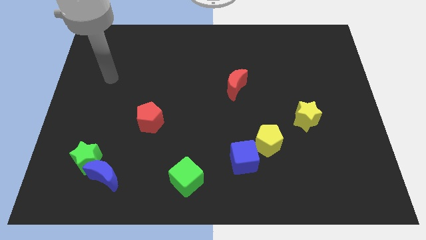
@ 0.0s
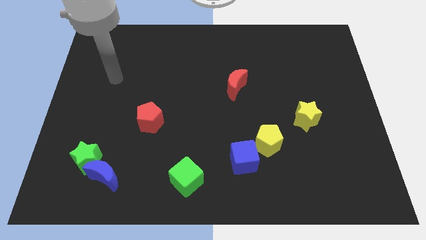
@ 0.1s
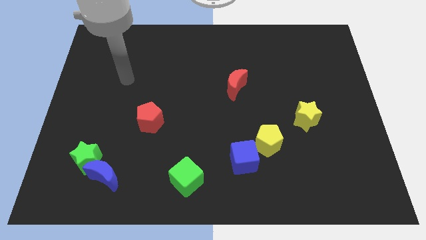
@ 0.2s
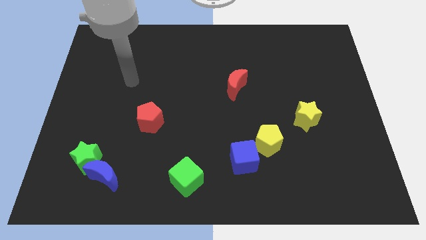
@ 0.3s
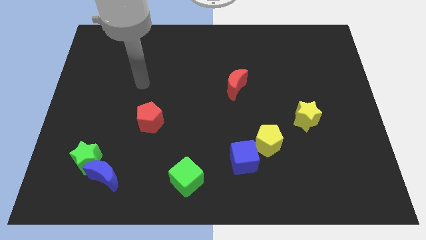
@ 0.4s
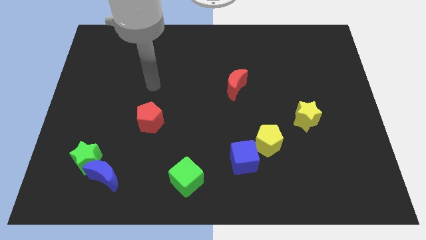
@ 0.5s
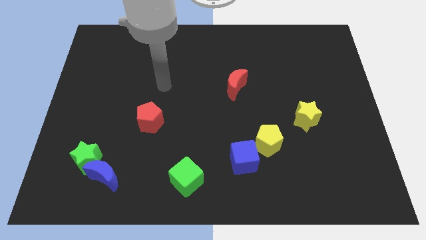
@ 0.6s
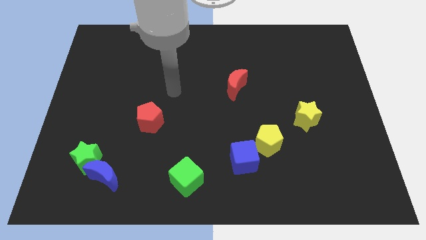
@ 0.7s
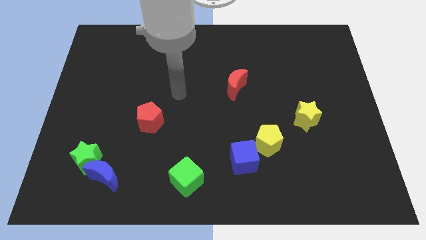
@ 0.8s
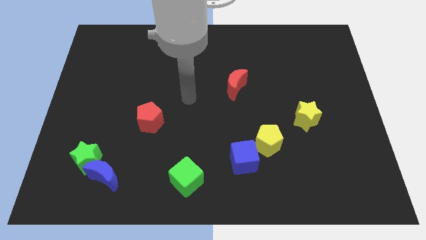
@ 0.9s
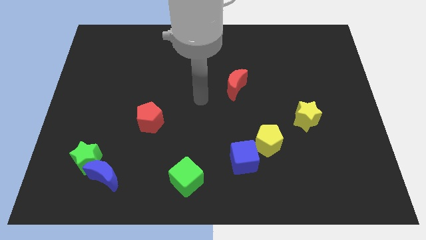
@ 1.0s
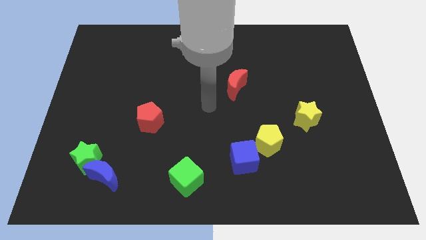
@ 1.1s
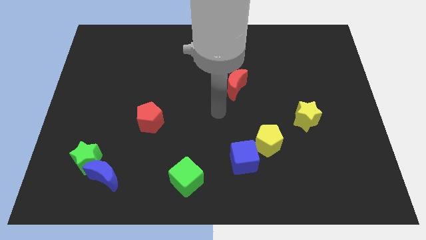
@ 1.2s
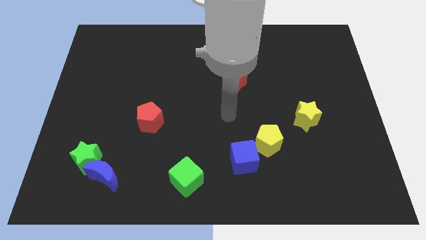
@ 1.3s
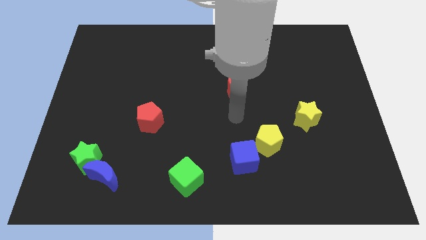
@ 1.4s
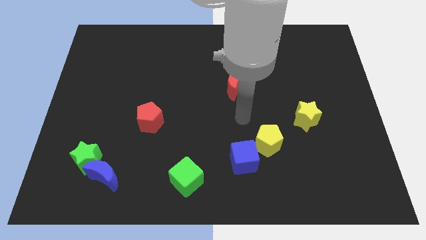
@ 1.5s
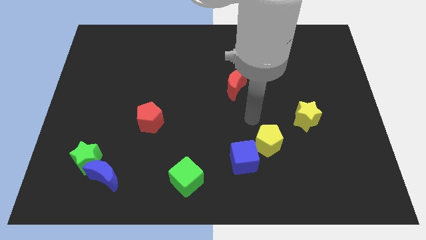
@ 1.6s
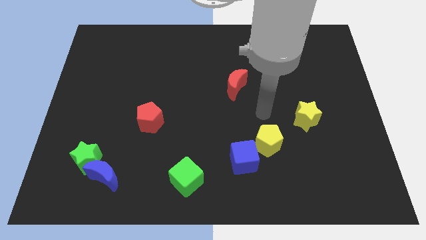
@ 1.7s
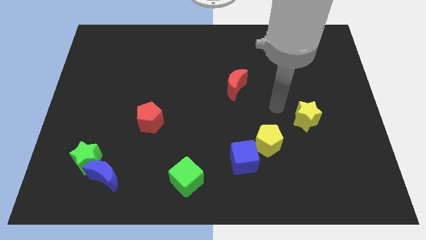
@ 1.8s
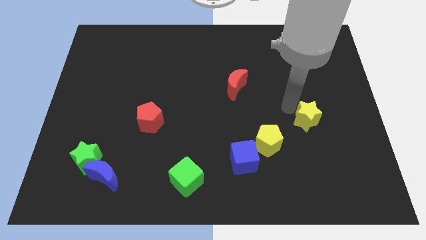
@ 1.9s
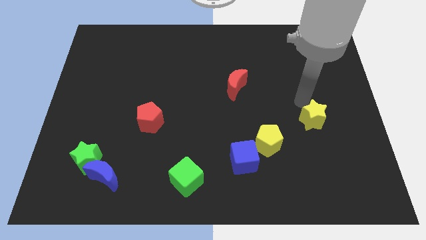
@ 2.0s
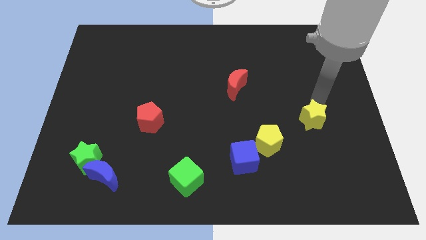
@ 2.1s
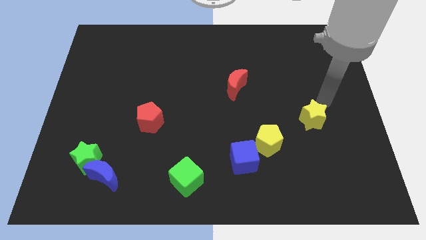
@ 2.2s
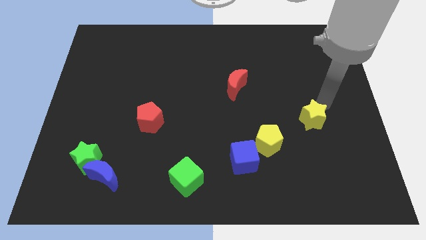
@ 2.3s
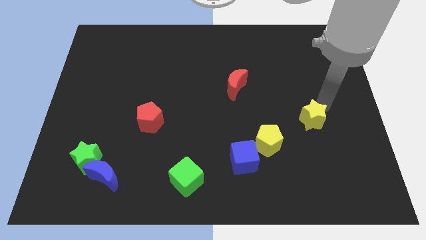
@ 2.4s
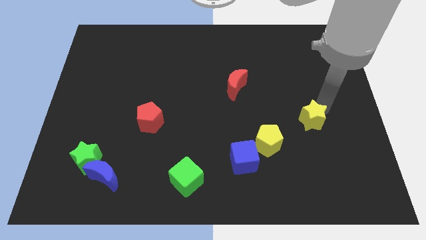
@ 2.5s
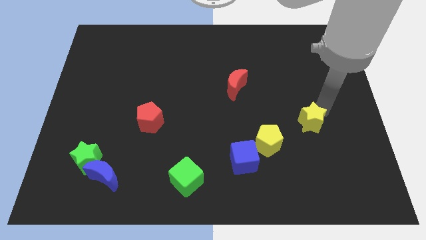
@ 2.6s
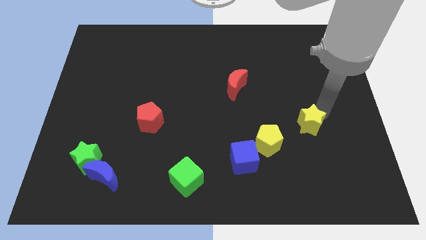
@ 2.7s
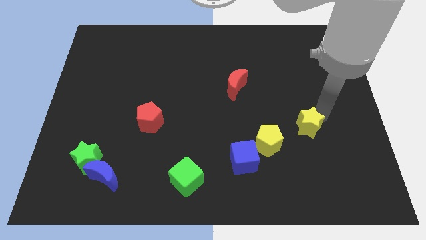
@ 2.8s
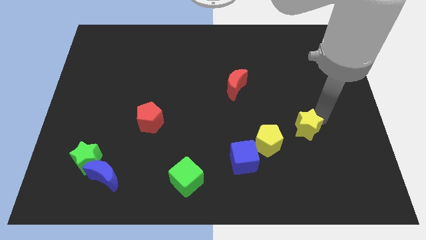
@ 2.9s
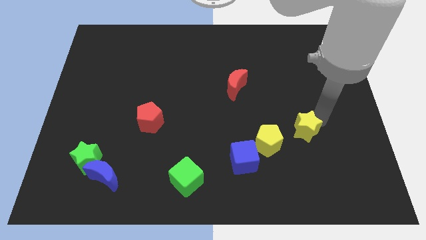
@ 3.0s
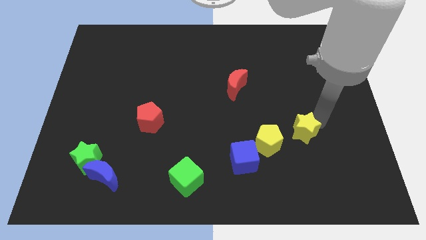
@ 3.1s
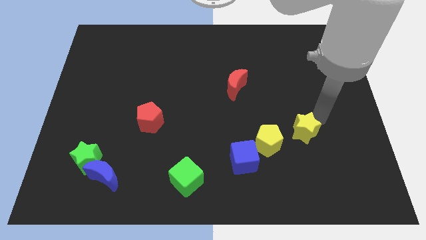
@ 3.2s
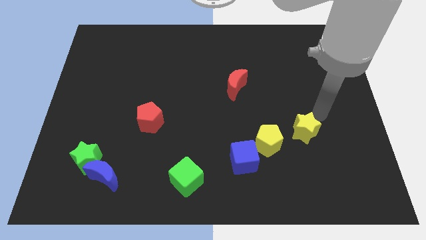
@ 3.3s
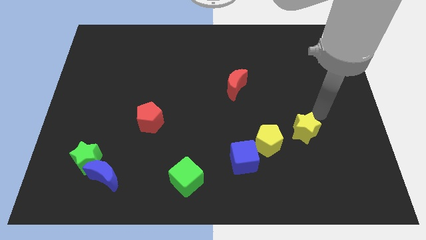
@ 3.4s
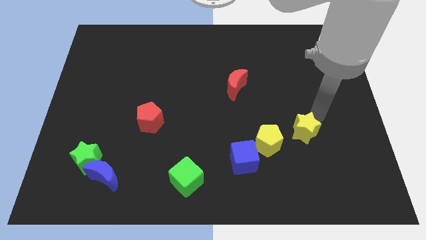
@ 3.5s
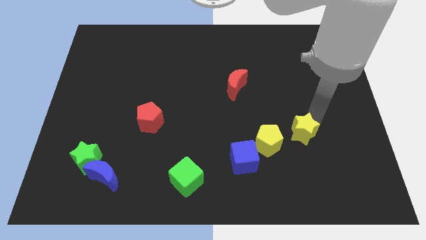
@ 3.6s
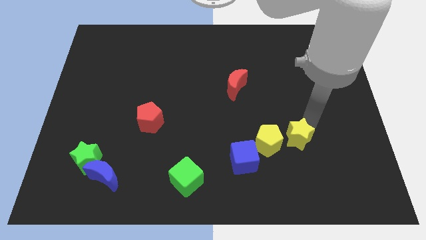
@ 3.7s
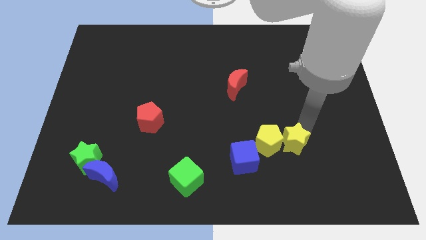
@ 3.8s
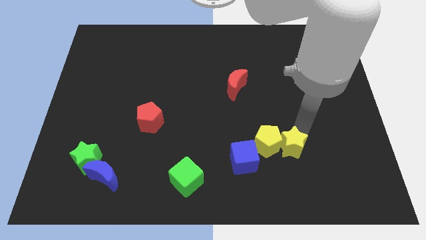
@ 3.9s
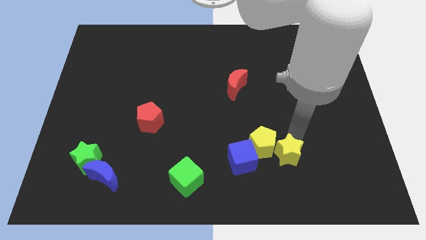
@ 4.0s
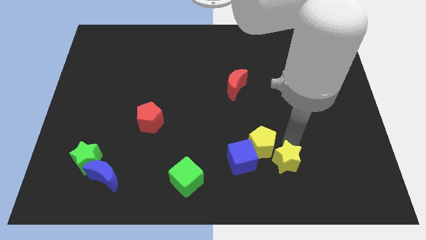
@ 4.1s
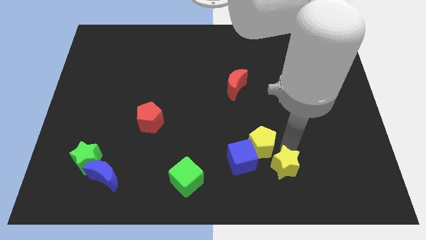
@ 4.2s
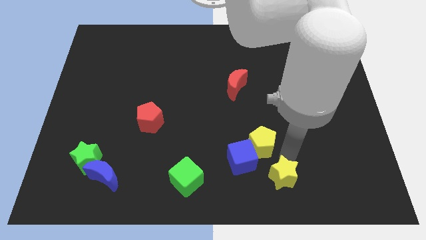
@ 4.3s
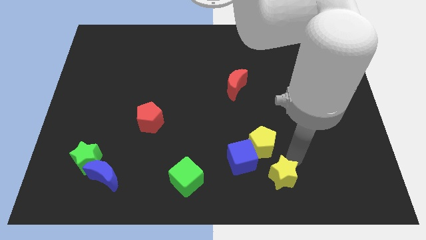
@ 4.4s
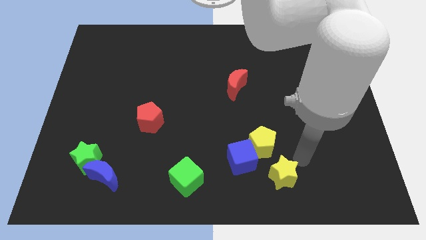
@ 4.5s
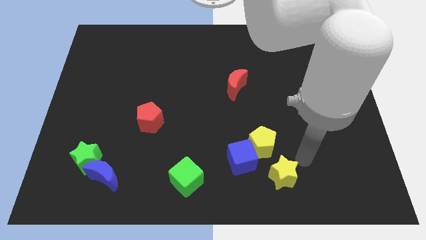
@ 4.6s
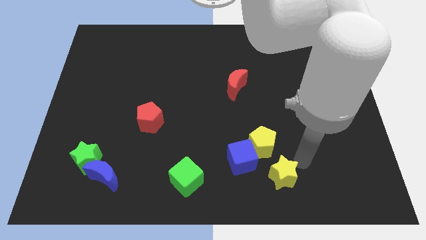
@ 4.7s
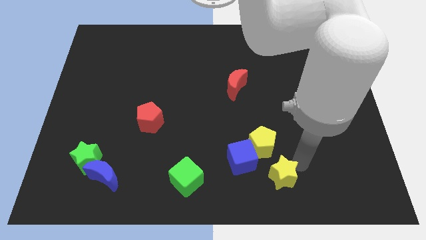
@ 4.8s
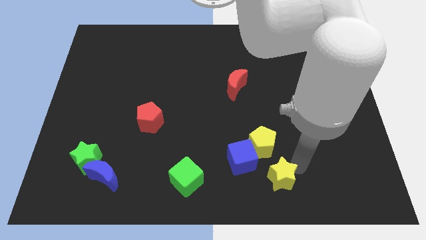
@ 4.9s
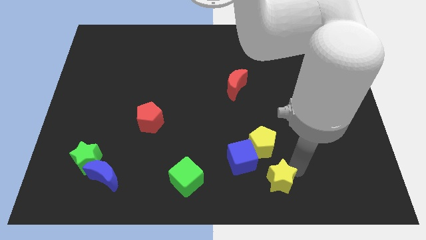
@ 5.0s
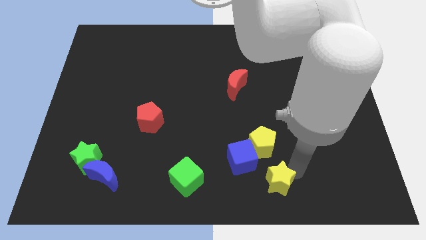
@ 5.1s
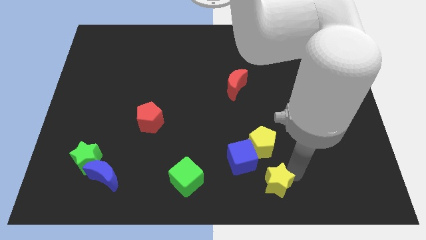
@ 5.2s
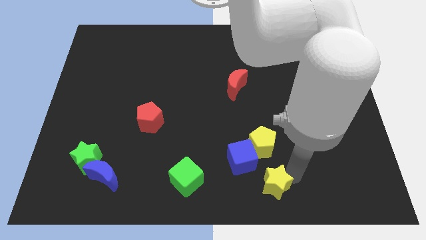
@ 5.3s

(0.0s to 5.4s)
move the yellow star to the bottom side

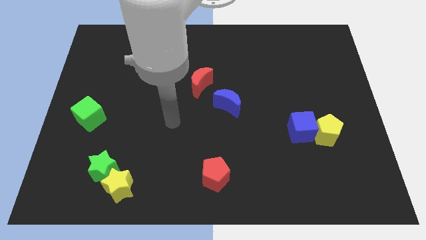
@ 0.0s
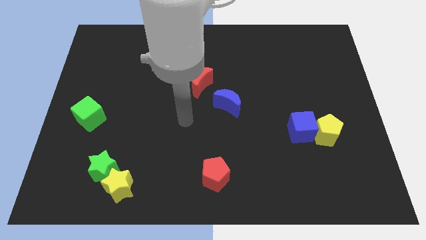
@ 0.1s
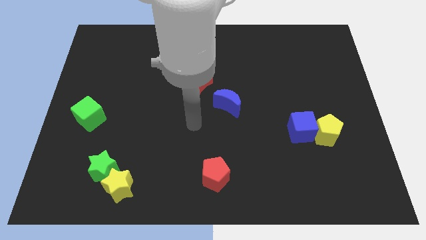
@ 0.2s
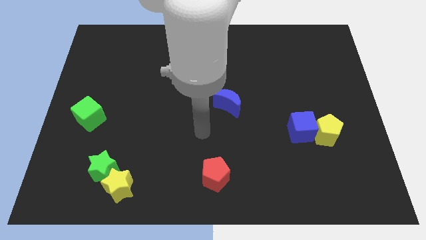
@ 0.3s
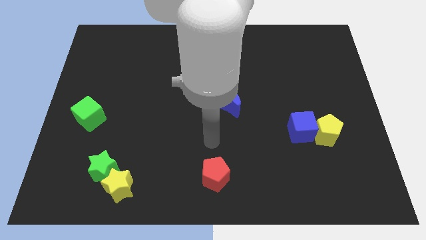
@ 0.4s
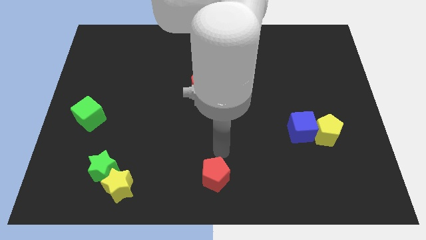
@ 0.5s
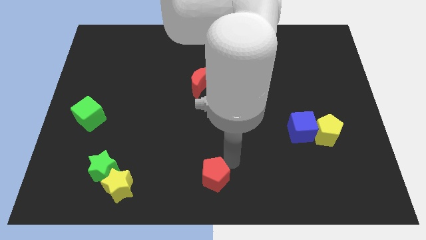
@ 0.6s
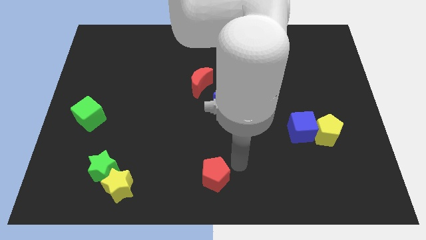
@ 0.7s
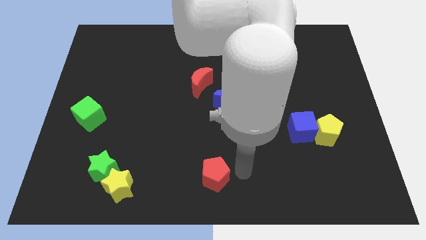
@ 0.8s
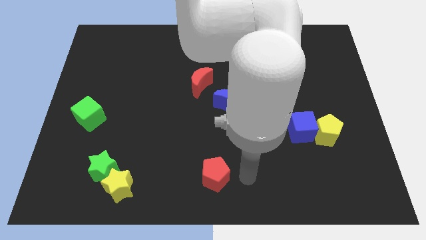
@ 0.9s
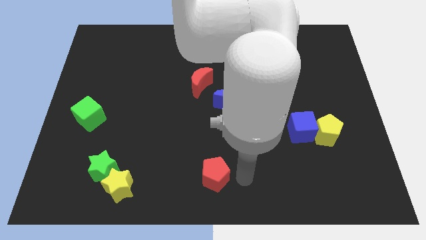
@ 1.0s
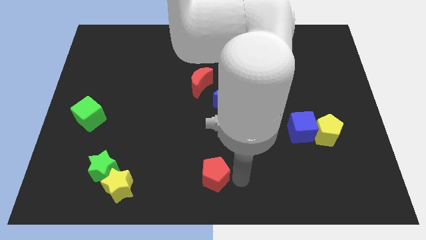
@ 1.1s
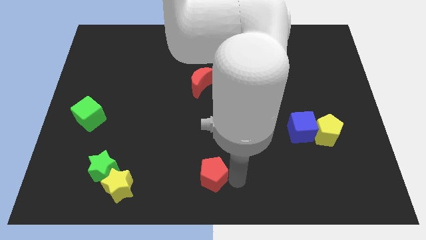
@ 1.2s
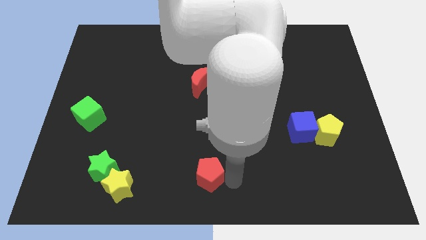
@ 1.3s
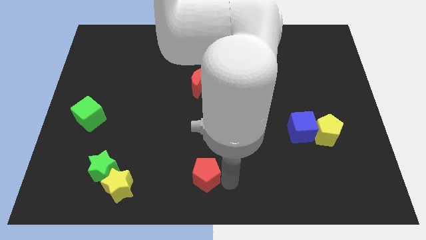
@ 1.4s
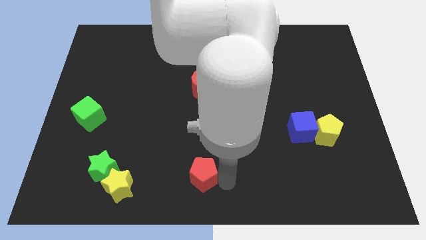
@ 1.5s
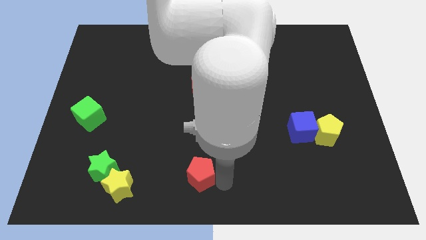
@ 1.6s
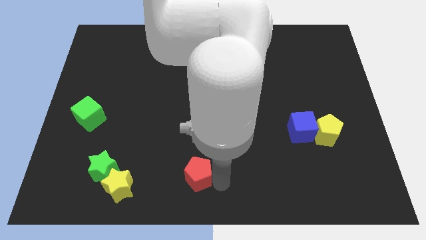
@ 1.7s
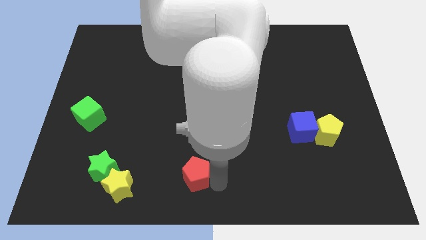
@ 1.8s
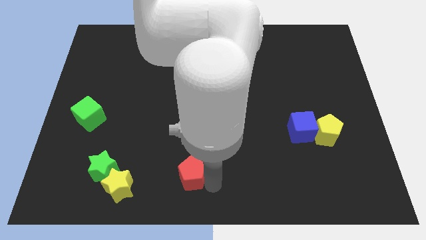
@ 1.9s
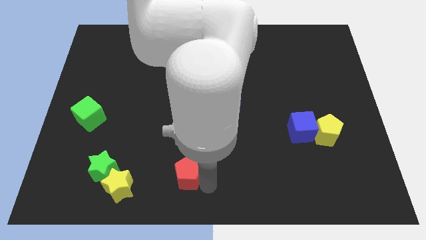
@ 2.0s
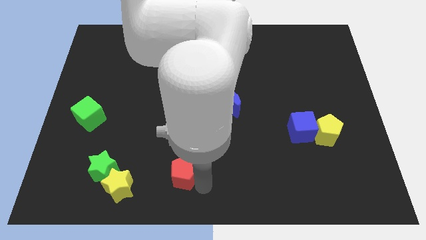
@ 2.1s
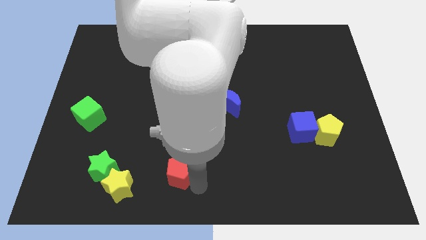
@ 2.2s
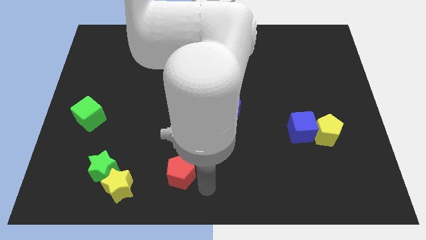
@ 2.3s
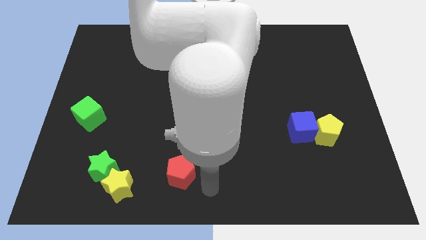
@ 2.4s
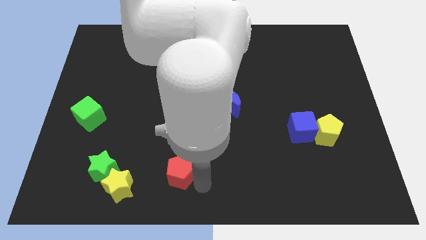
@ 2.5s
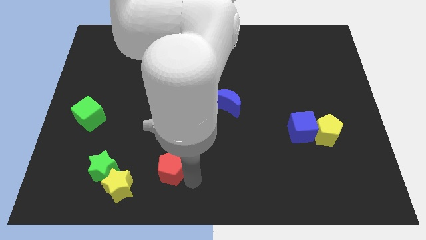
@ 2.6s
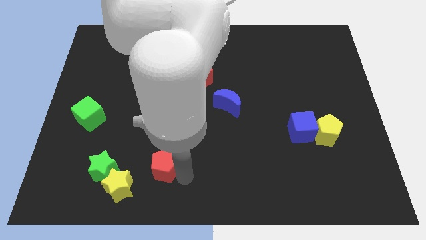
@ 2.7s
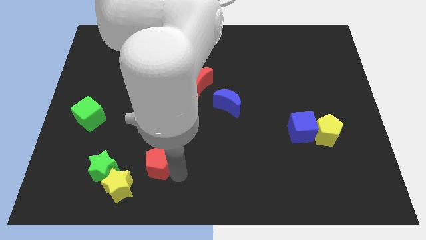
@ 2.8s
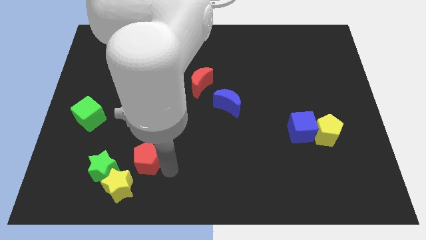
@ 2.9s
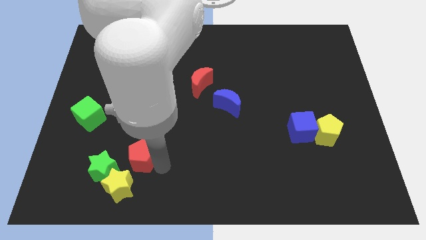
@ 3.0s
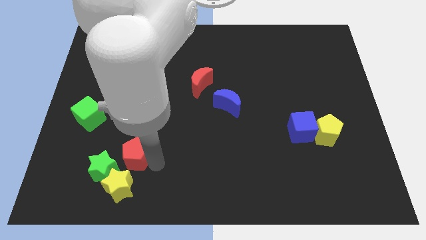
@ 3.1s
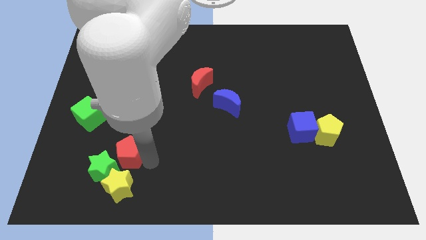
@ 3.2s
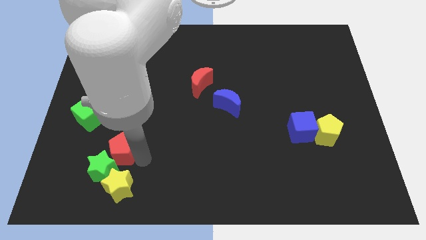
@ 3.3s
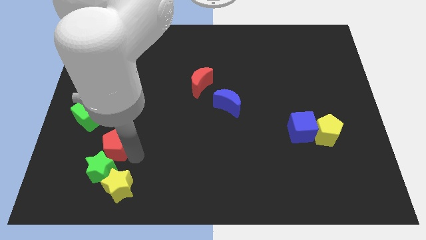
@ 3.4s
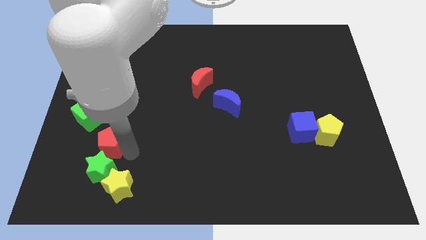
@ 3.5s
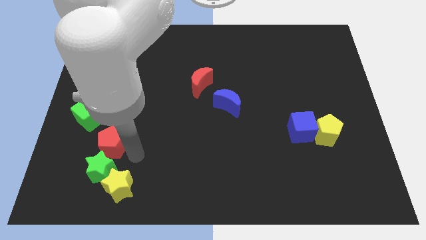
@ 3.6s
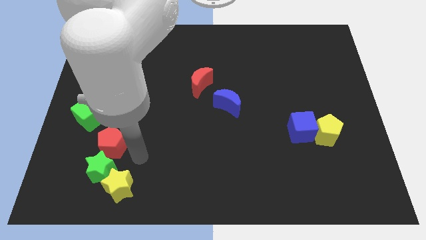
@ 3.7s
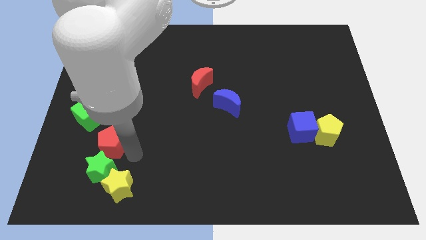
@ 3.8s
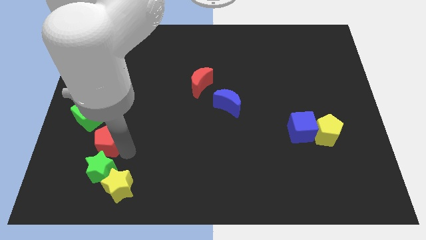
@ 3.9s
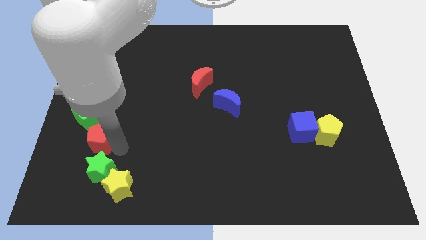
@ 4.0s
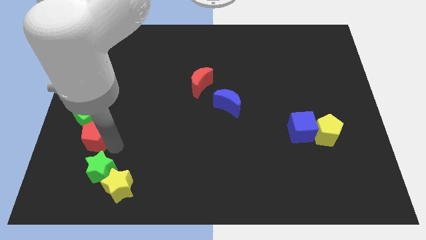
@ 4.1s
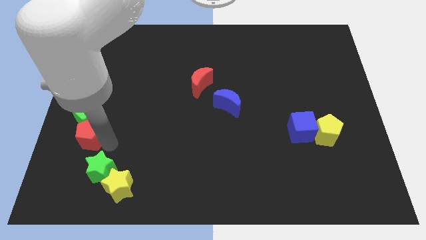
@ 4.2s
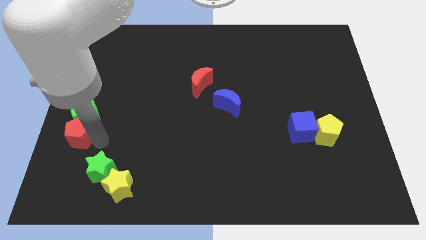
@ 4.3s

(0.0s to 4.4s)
slide the red pentagon to the center left
